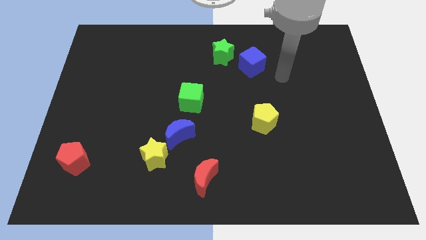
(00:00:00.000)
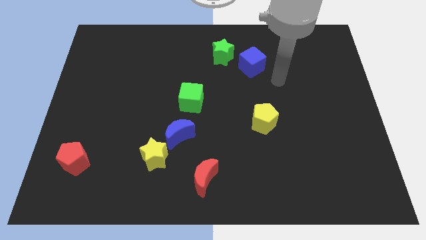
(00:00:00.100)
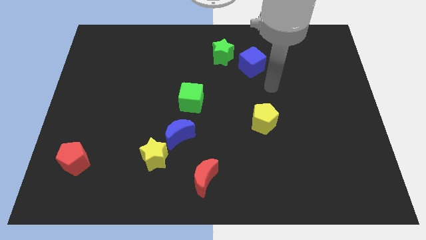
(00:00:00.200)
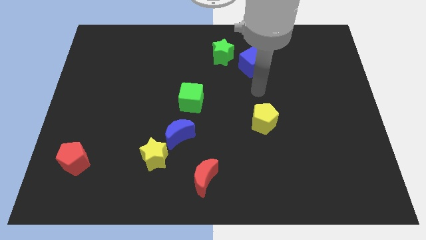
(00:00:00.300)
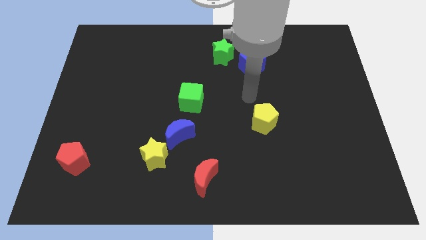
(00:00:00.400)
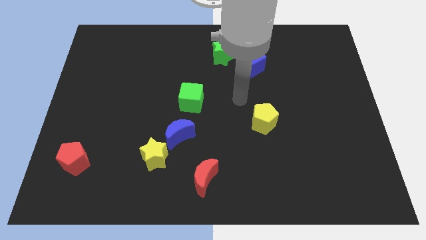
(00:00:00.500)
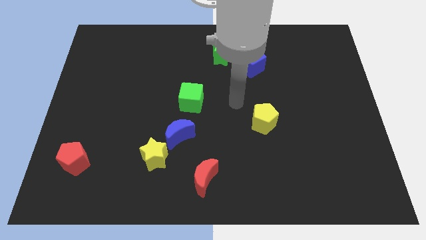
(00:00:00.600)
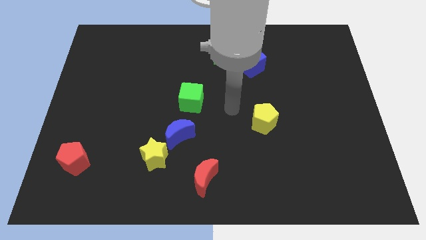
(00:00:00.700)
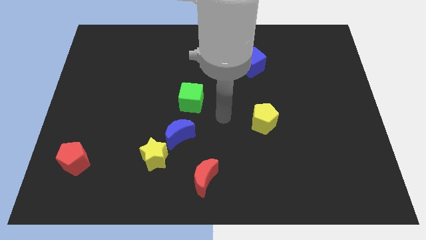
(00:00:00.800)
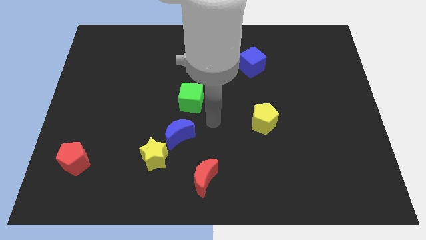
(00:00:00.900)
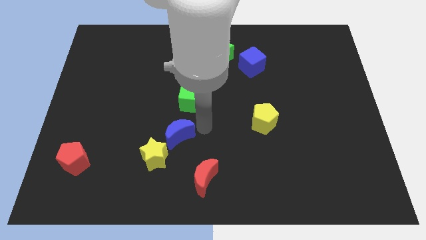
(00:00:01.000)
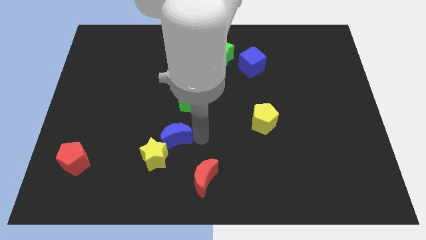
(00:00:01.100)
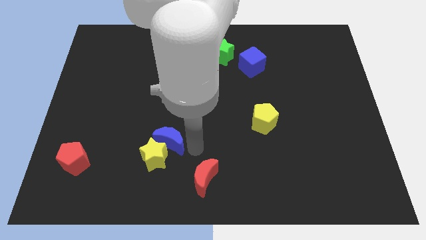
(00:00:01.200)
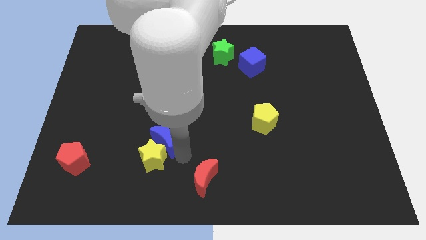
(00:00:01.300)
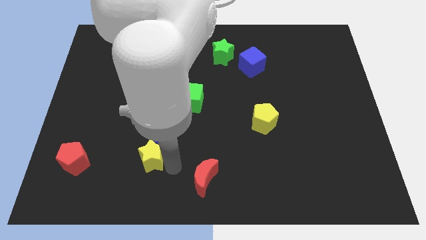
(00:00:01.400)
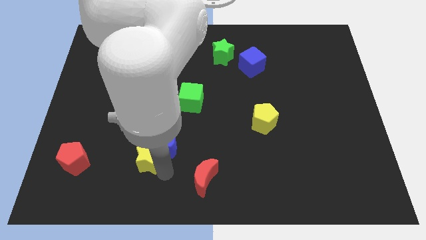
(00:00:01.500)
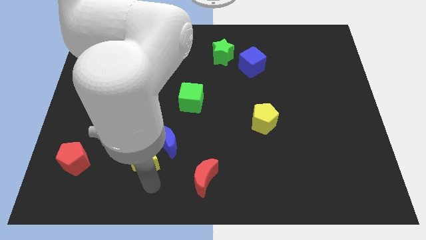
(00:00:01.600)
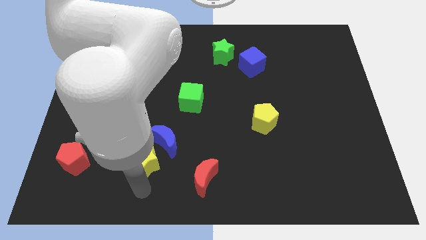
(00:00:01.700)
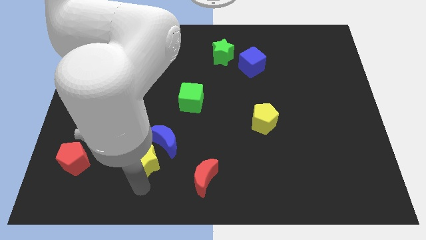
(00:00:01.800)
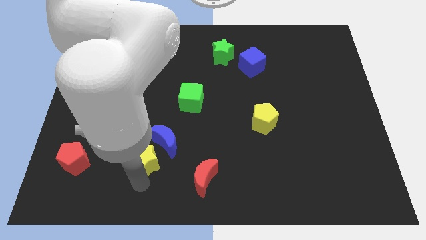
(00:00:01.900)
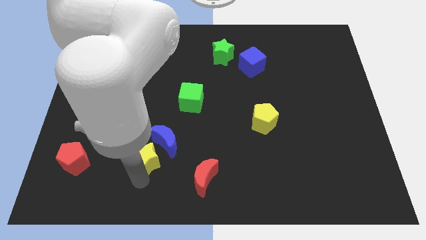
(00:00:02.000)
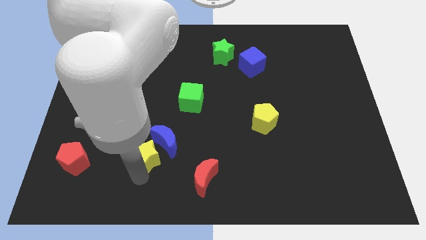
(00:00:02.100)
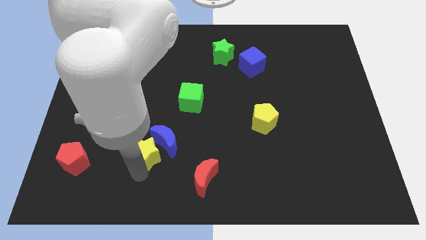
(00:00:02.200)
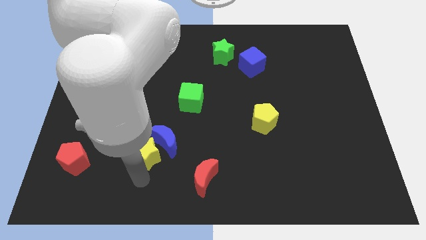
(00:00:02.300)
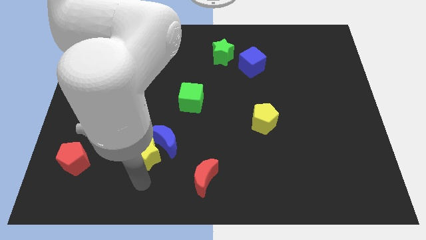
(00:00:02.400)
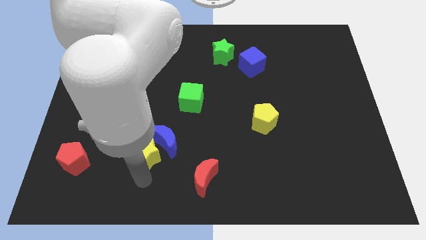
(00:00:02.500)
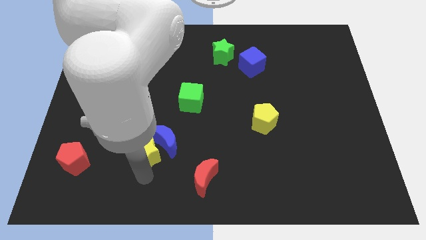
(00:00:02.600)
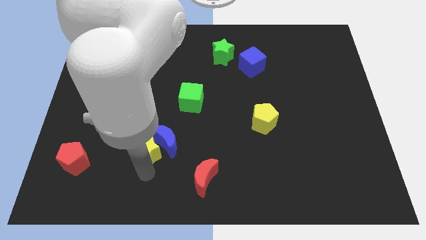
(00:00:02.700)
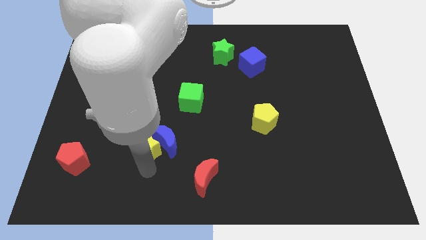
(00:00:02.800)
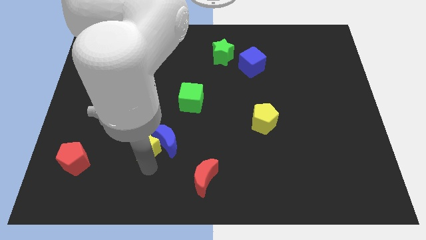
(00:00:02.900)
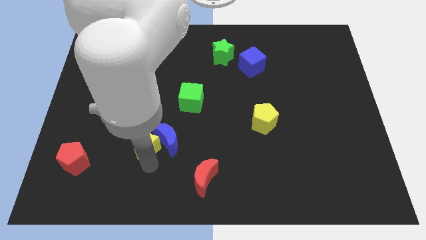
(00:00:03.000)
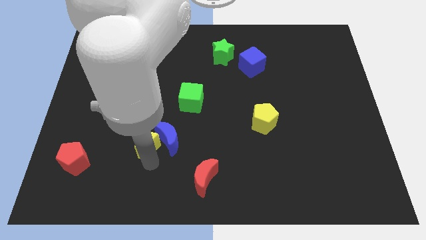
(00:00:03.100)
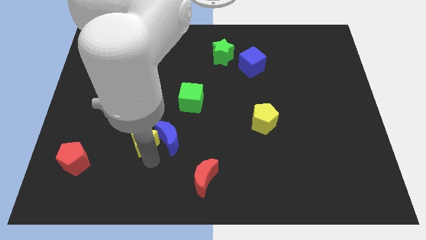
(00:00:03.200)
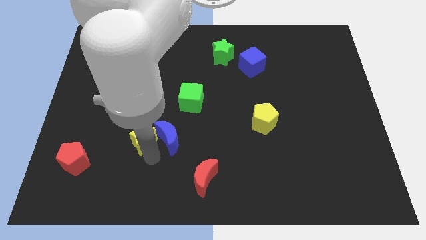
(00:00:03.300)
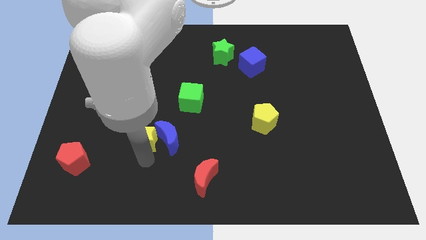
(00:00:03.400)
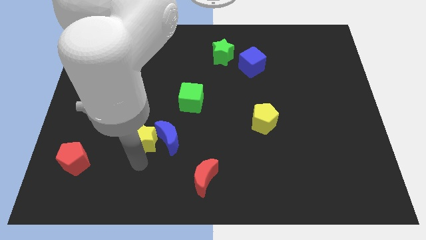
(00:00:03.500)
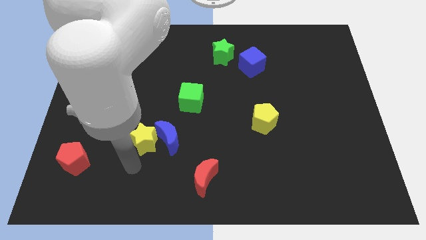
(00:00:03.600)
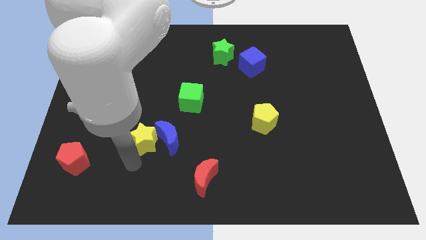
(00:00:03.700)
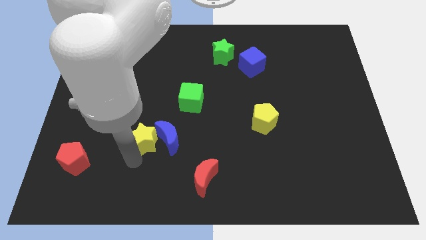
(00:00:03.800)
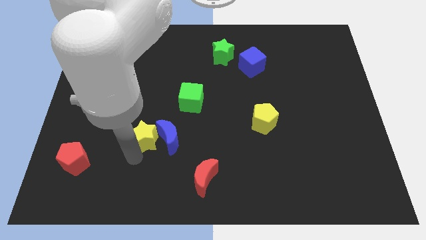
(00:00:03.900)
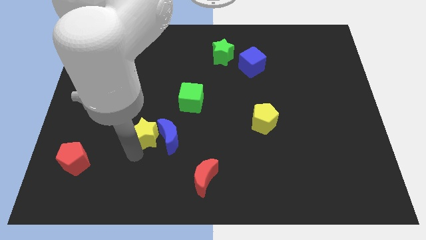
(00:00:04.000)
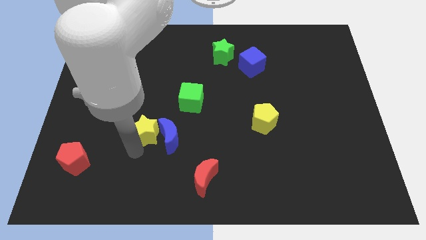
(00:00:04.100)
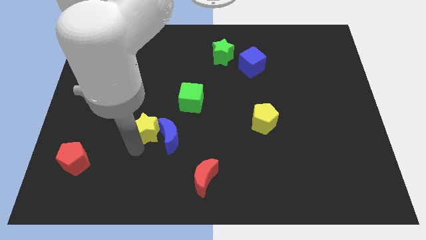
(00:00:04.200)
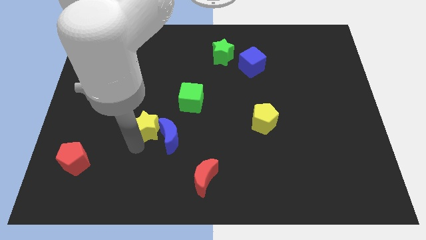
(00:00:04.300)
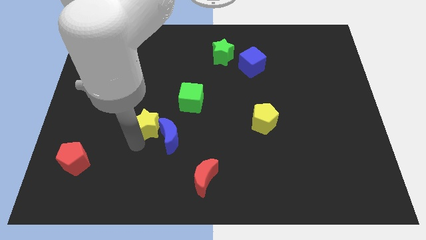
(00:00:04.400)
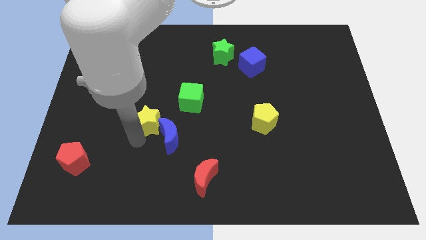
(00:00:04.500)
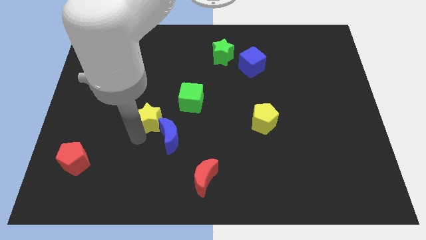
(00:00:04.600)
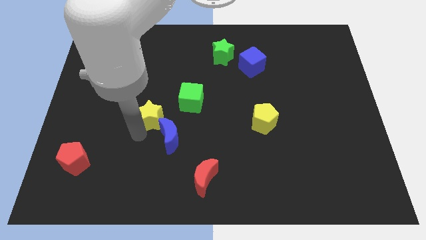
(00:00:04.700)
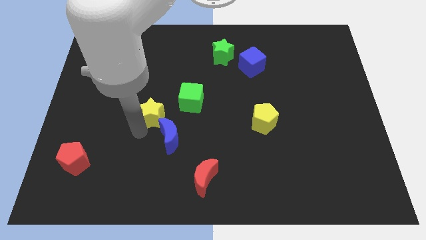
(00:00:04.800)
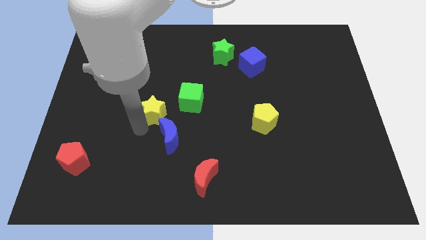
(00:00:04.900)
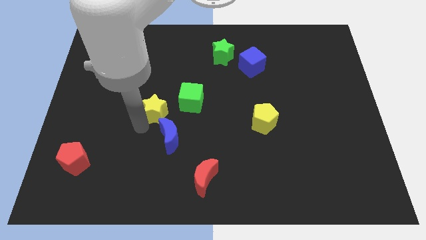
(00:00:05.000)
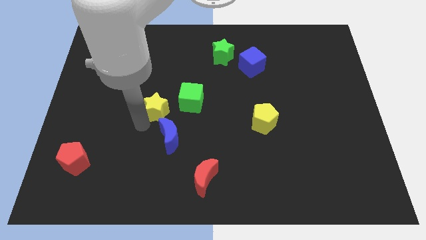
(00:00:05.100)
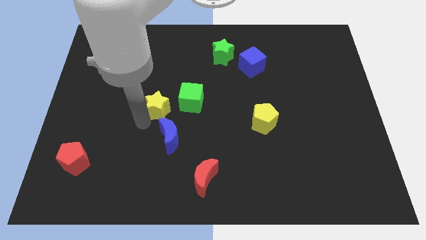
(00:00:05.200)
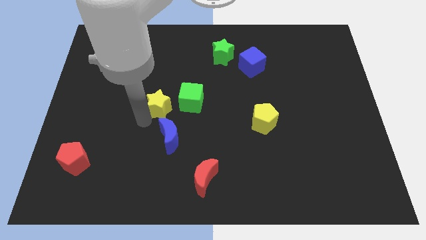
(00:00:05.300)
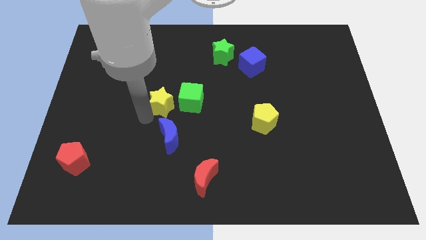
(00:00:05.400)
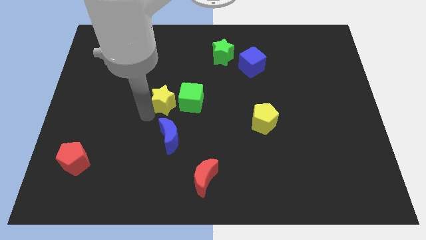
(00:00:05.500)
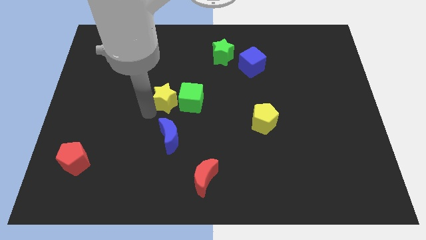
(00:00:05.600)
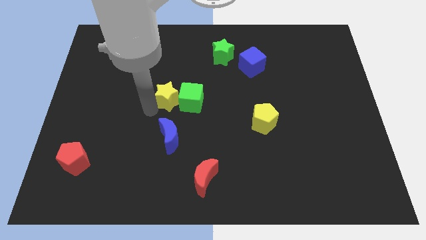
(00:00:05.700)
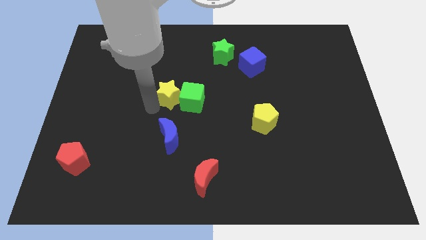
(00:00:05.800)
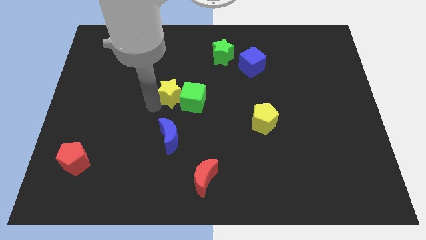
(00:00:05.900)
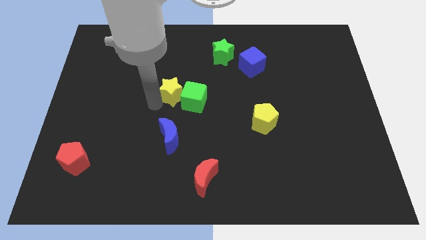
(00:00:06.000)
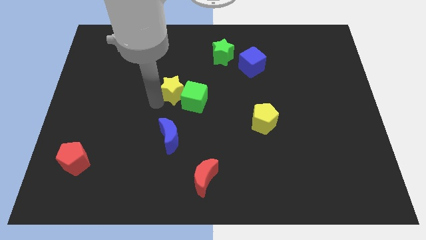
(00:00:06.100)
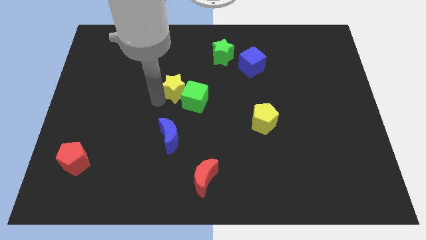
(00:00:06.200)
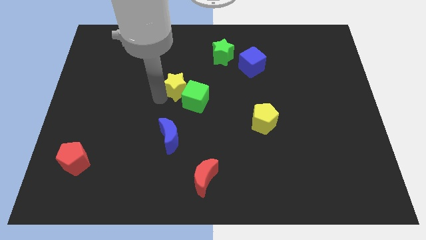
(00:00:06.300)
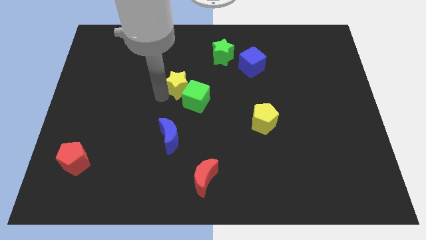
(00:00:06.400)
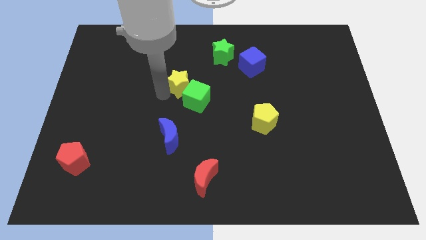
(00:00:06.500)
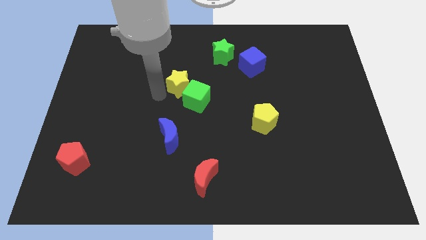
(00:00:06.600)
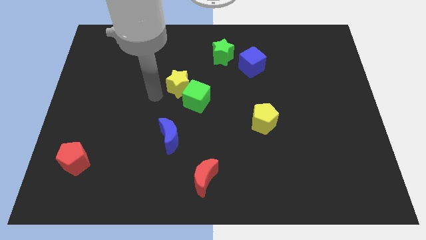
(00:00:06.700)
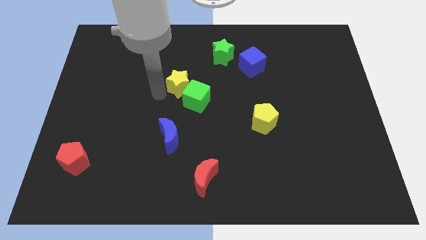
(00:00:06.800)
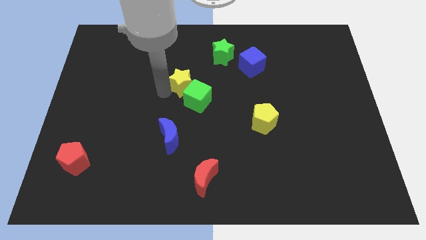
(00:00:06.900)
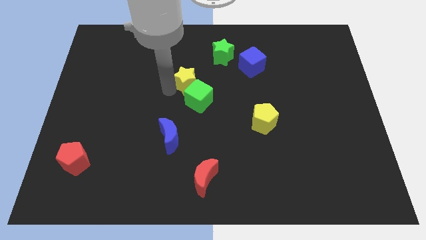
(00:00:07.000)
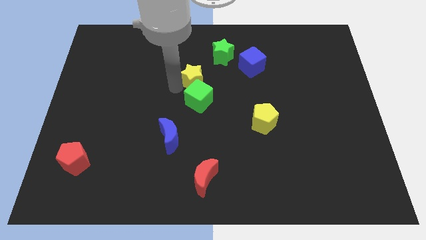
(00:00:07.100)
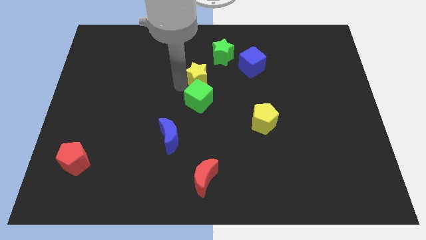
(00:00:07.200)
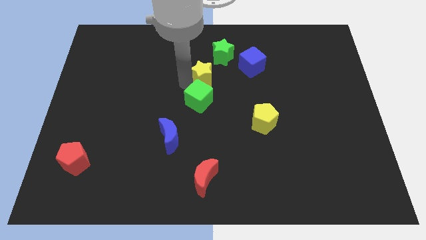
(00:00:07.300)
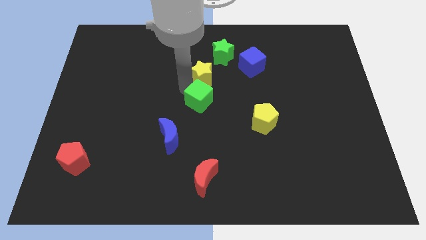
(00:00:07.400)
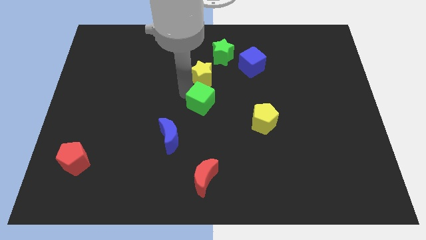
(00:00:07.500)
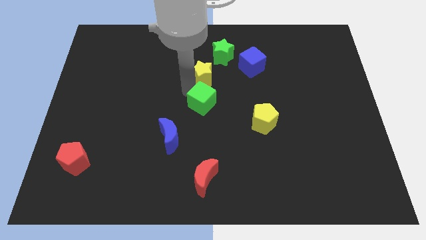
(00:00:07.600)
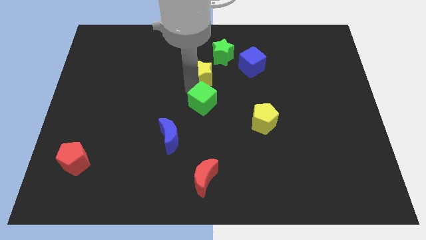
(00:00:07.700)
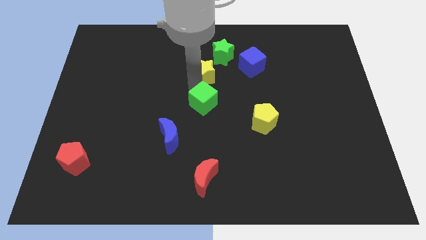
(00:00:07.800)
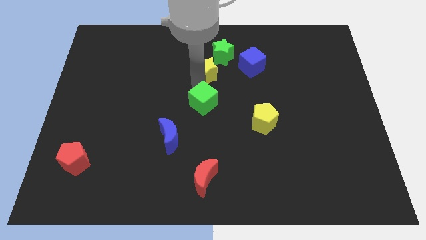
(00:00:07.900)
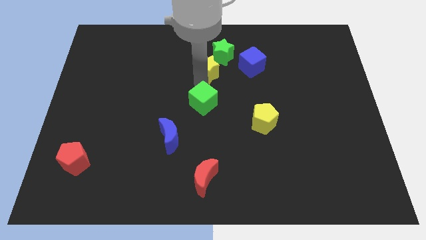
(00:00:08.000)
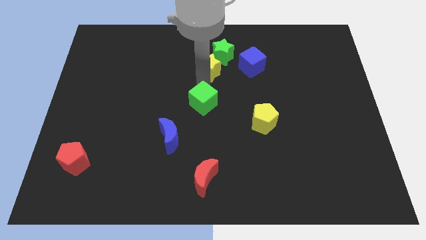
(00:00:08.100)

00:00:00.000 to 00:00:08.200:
move the yellow star towards the green star
